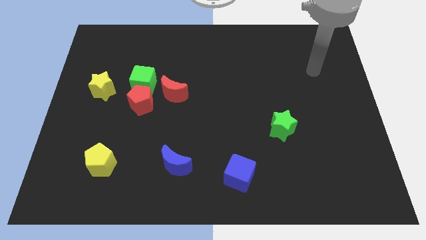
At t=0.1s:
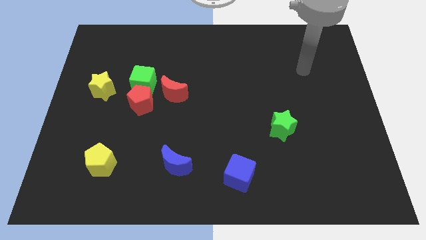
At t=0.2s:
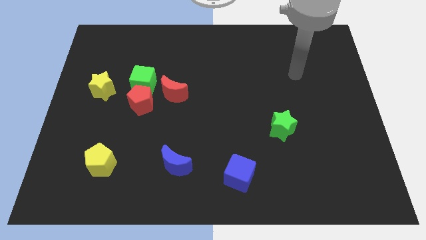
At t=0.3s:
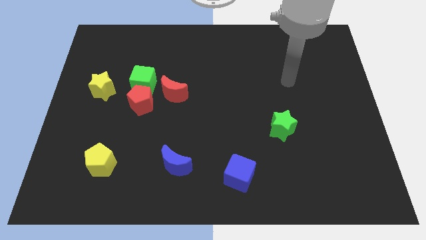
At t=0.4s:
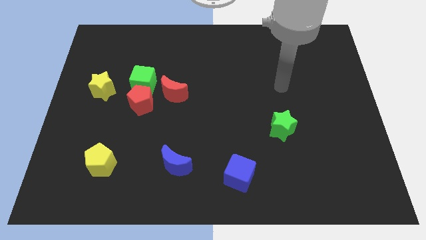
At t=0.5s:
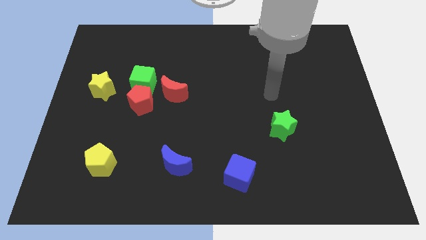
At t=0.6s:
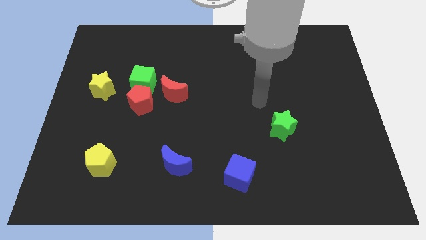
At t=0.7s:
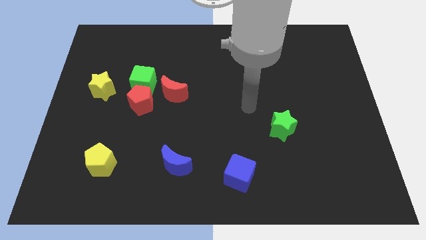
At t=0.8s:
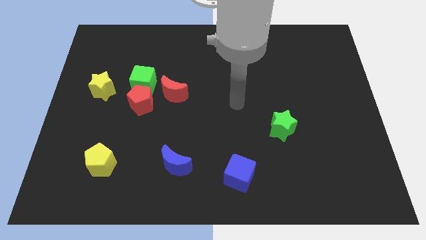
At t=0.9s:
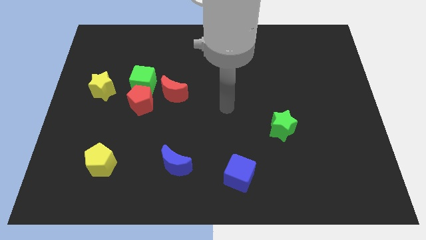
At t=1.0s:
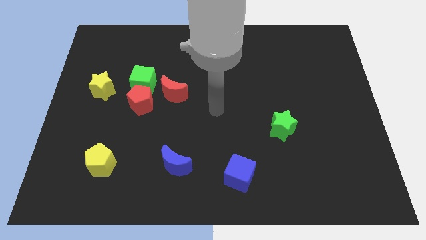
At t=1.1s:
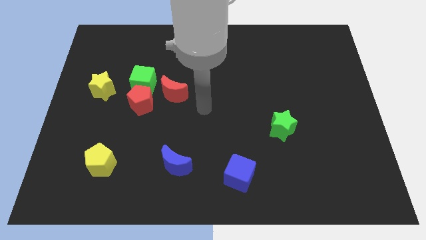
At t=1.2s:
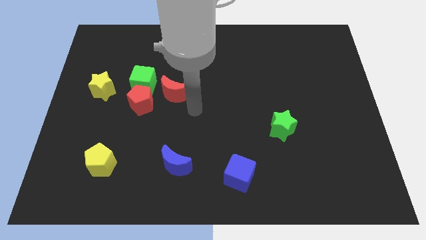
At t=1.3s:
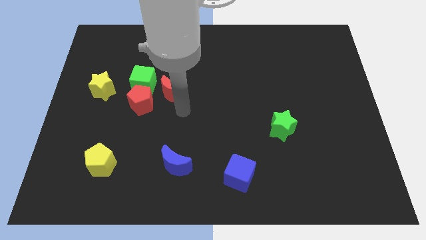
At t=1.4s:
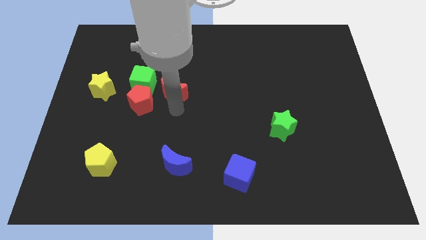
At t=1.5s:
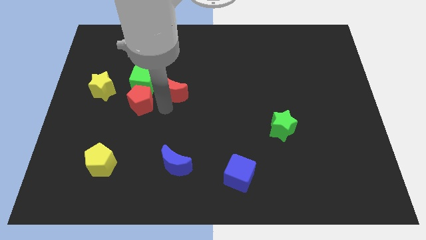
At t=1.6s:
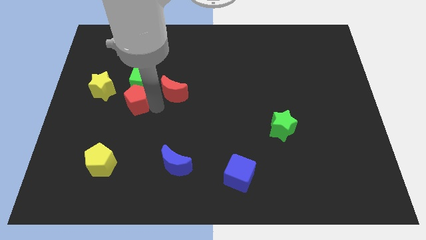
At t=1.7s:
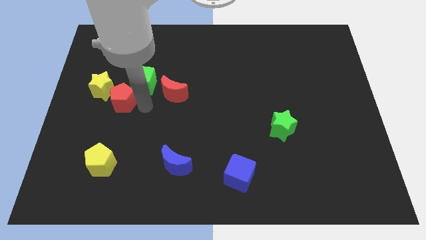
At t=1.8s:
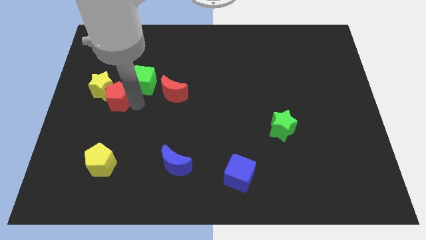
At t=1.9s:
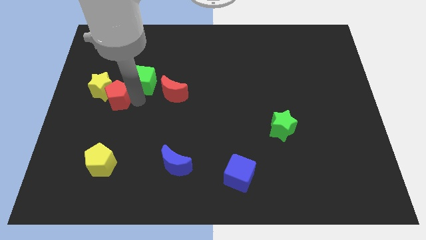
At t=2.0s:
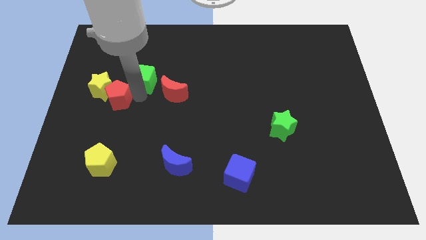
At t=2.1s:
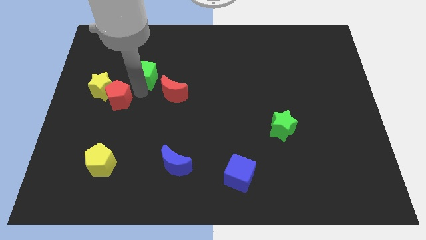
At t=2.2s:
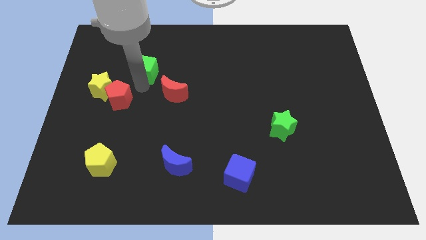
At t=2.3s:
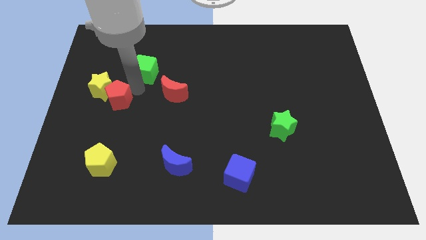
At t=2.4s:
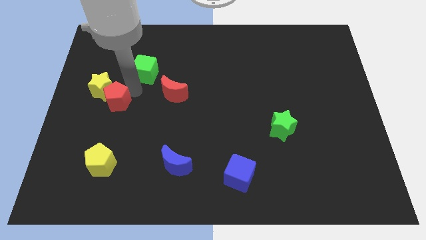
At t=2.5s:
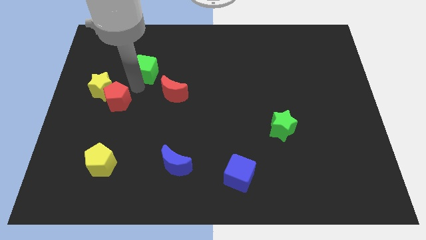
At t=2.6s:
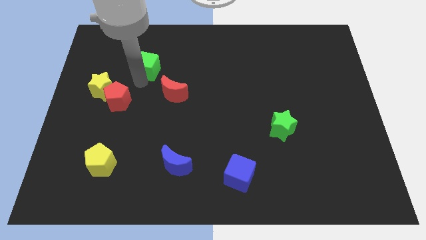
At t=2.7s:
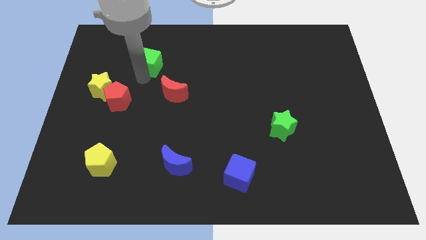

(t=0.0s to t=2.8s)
pull the green cube apart from the red pentagon, red moon, and yellow star

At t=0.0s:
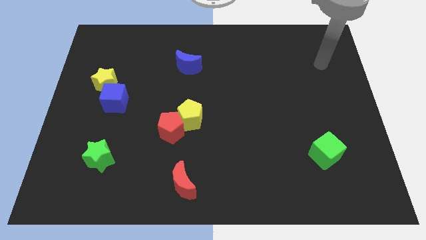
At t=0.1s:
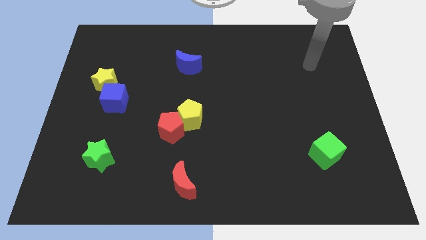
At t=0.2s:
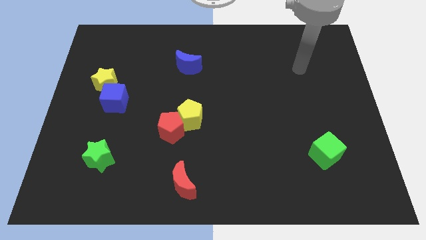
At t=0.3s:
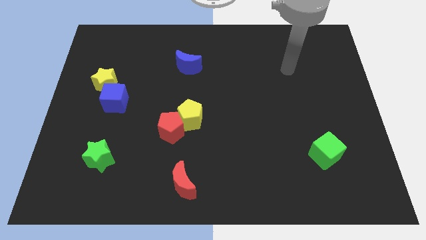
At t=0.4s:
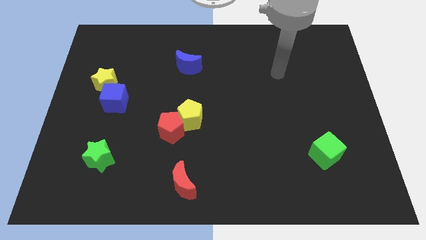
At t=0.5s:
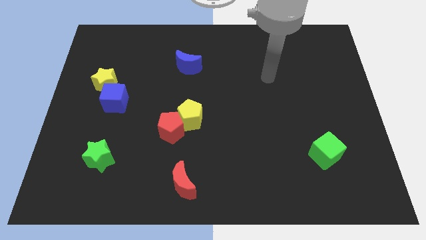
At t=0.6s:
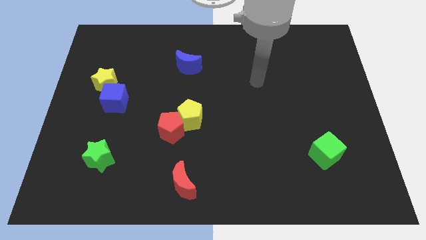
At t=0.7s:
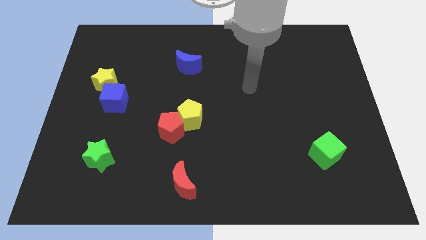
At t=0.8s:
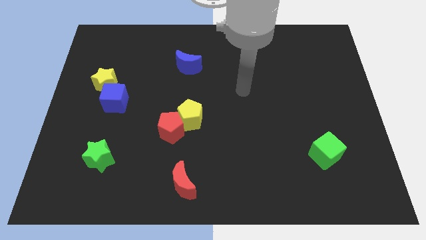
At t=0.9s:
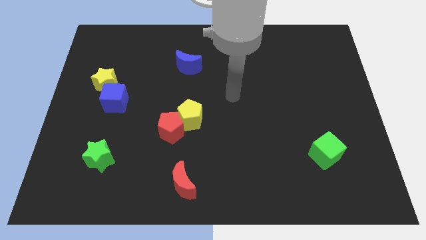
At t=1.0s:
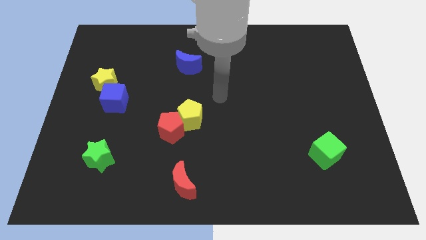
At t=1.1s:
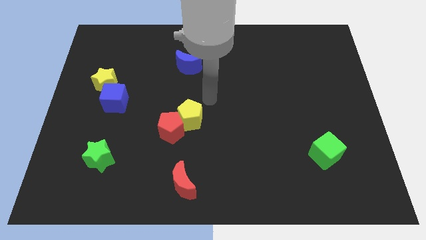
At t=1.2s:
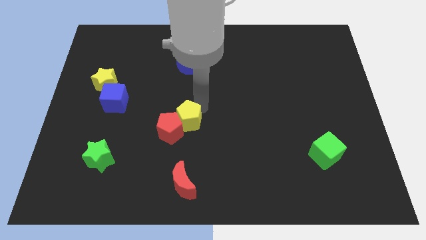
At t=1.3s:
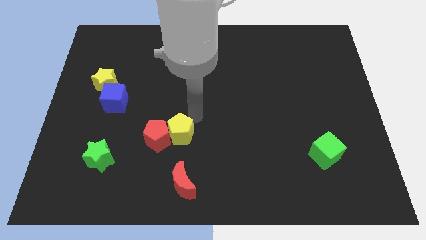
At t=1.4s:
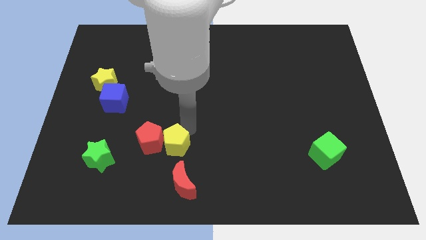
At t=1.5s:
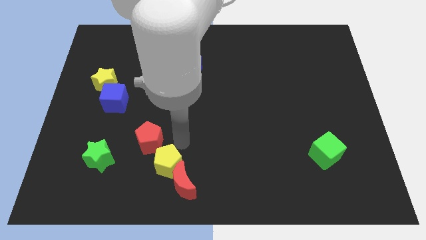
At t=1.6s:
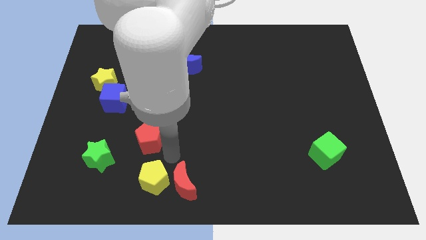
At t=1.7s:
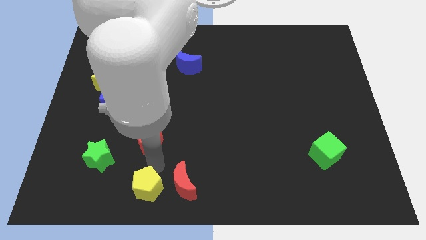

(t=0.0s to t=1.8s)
move the red pentagon away from the yellow pentagon

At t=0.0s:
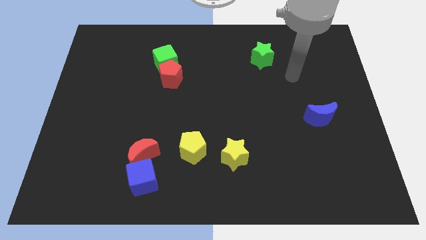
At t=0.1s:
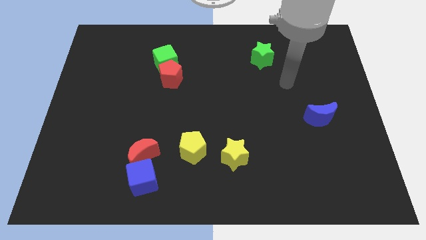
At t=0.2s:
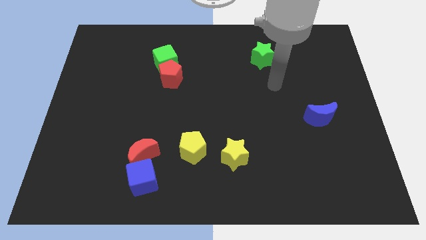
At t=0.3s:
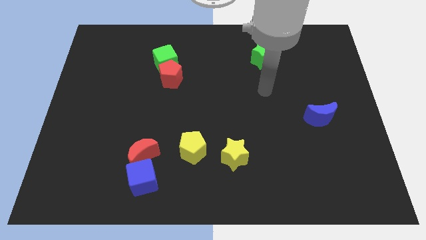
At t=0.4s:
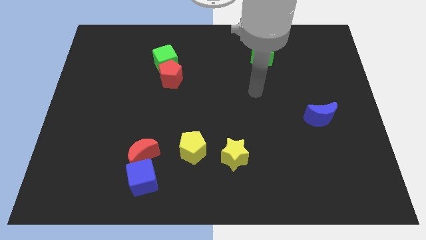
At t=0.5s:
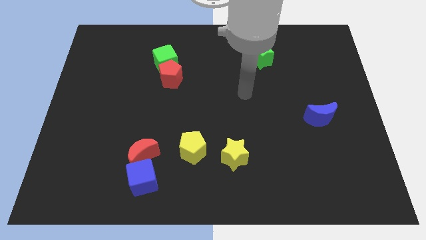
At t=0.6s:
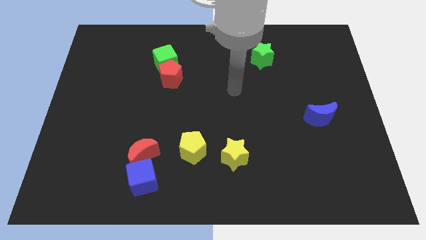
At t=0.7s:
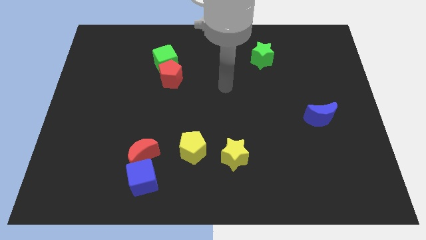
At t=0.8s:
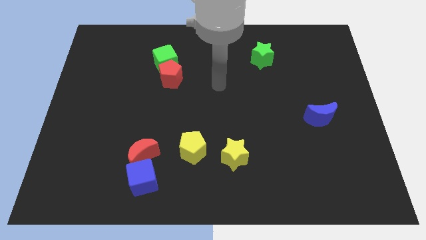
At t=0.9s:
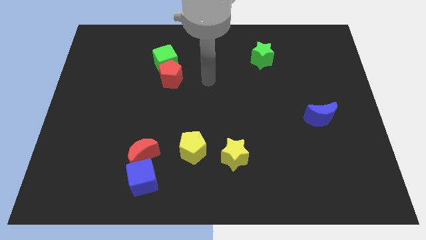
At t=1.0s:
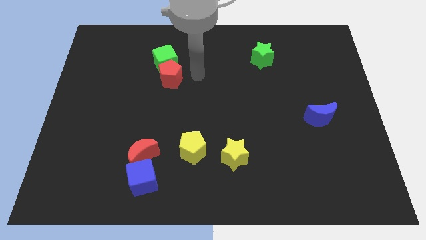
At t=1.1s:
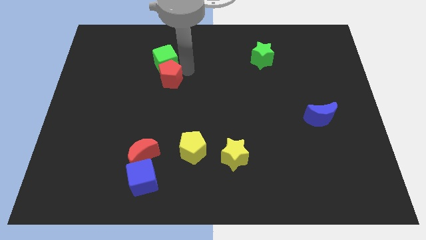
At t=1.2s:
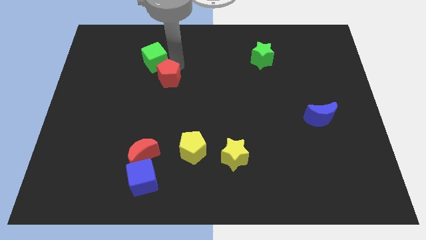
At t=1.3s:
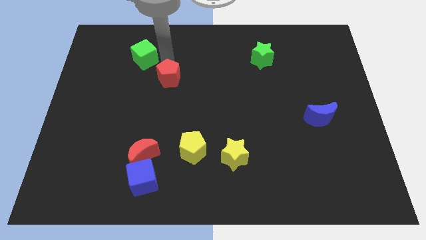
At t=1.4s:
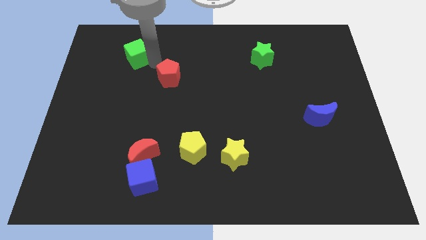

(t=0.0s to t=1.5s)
pull the red pentagon apart from the green cube

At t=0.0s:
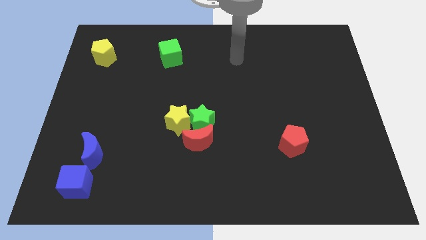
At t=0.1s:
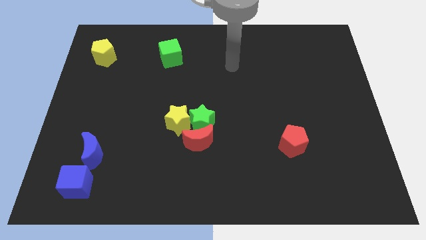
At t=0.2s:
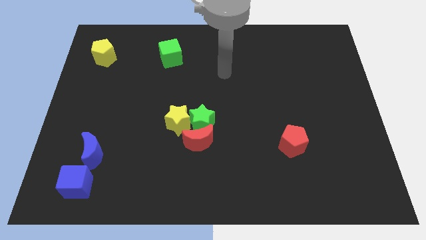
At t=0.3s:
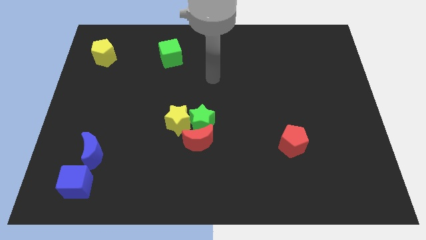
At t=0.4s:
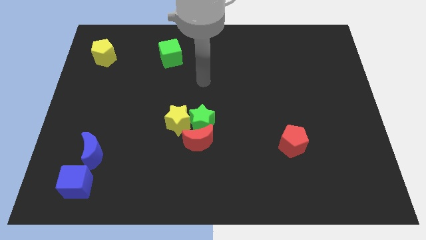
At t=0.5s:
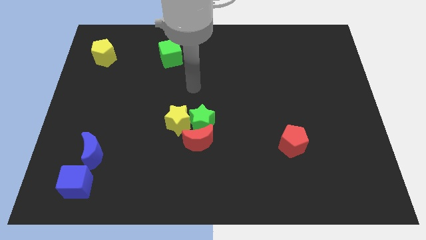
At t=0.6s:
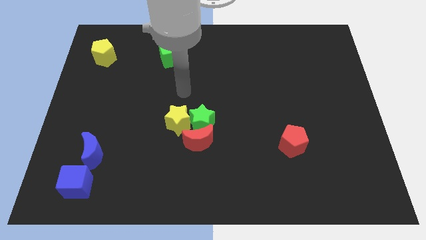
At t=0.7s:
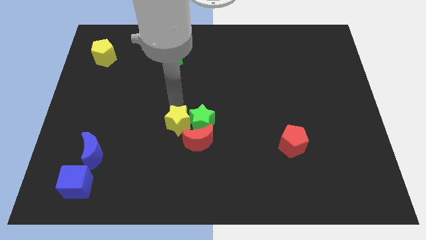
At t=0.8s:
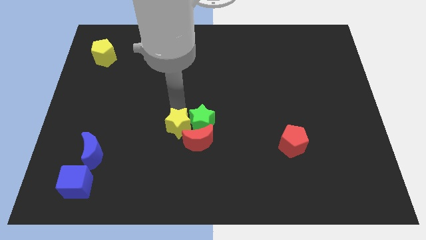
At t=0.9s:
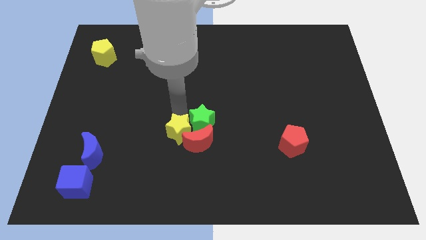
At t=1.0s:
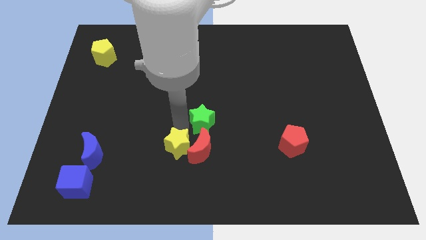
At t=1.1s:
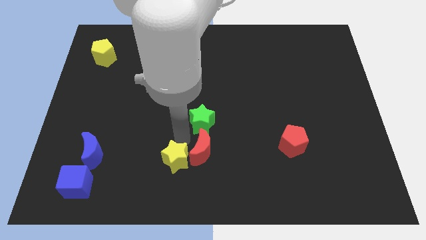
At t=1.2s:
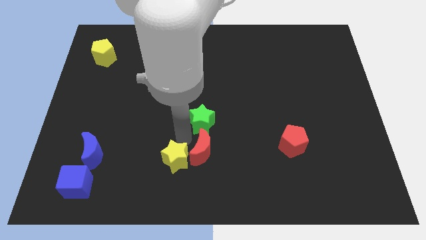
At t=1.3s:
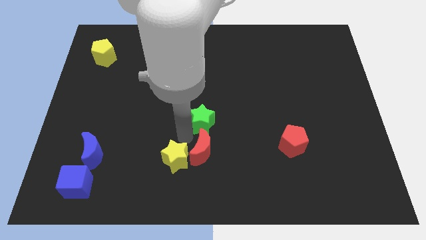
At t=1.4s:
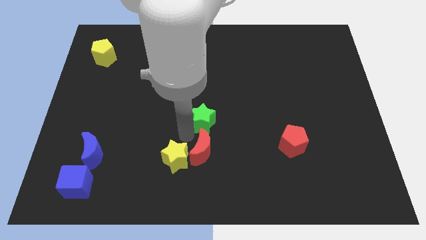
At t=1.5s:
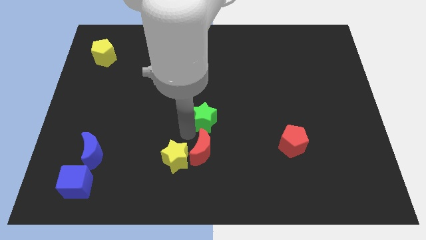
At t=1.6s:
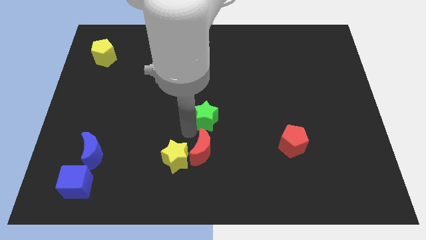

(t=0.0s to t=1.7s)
pull the green star apart from the yellow star and red moon

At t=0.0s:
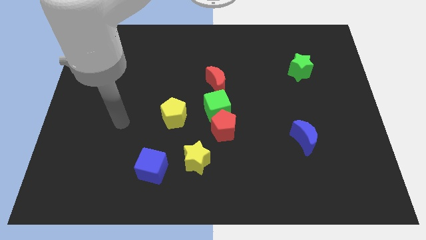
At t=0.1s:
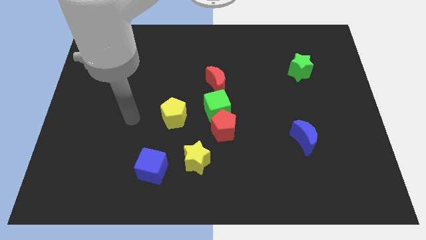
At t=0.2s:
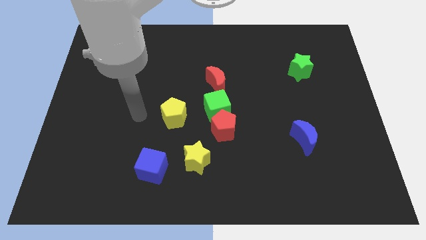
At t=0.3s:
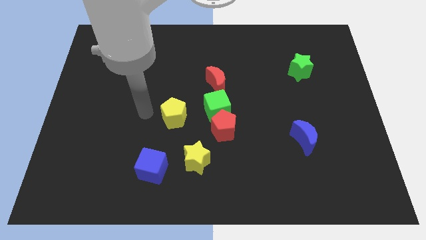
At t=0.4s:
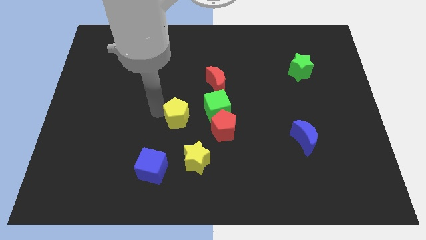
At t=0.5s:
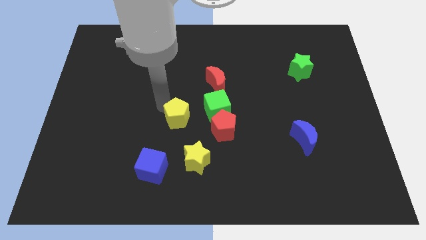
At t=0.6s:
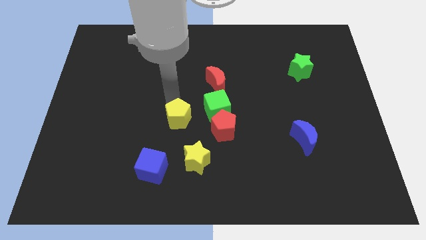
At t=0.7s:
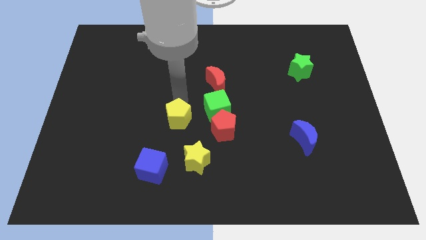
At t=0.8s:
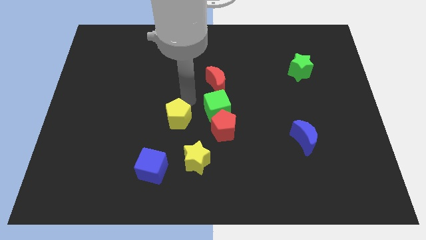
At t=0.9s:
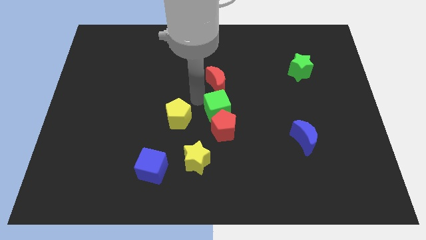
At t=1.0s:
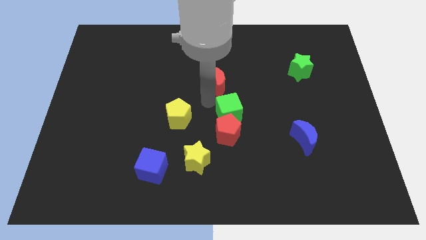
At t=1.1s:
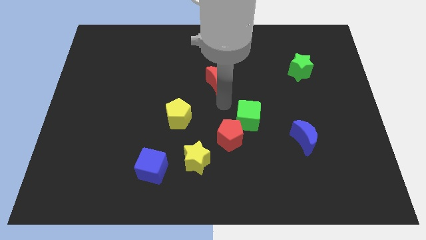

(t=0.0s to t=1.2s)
separate the red moon from the green cube

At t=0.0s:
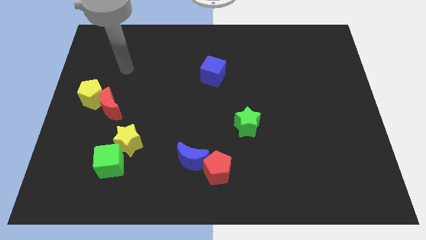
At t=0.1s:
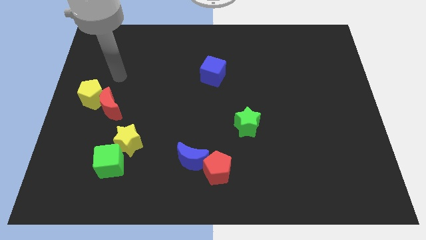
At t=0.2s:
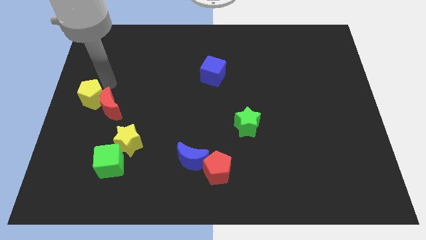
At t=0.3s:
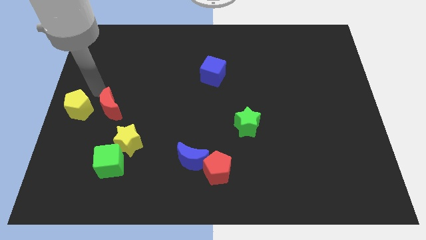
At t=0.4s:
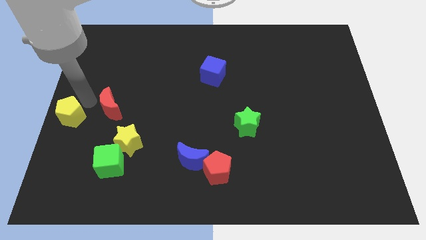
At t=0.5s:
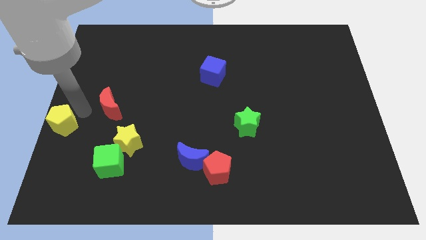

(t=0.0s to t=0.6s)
separate the red moon from the yellow pentagon
